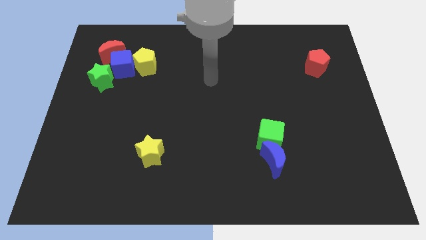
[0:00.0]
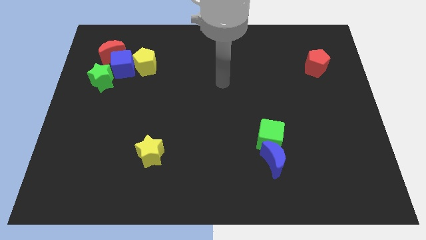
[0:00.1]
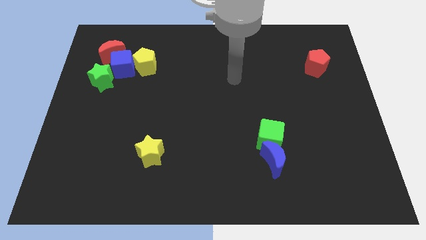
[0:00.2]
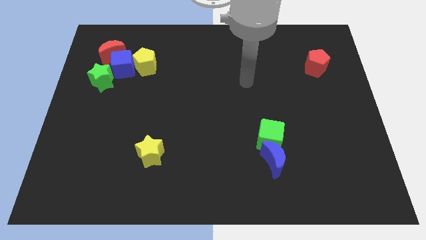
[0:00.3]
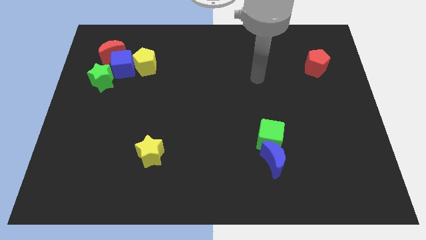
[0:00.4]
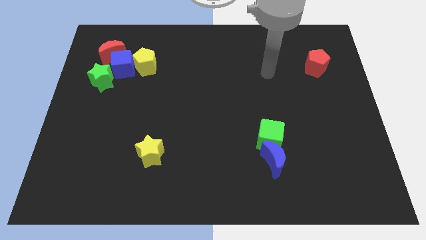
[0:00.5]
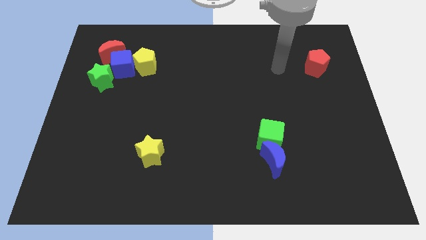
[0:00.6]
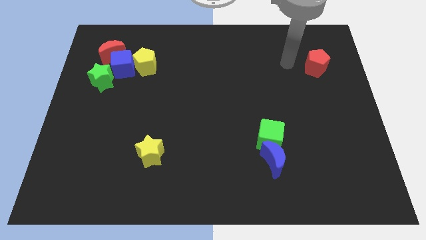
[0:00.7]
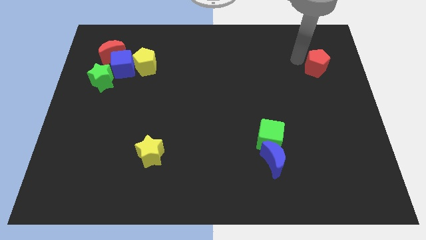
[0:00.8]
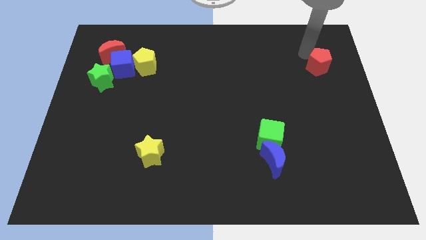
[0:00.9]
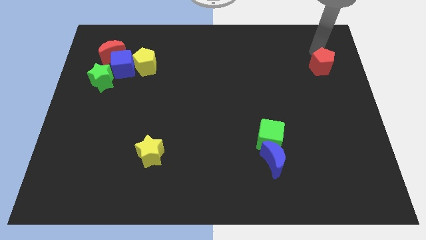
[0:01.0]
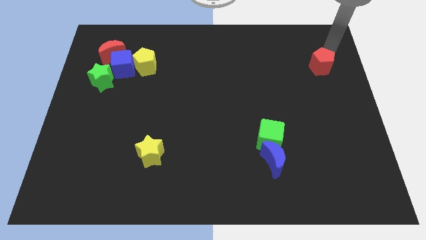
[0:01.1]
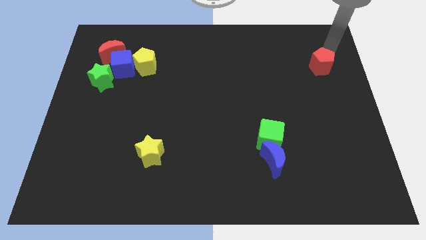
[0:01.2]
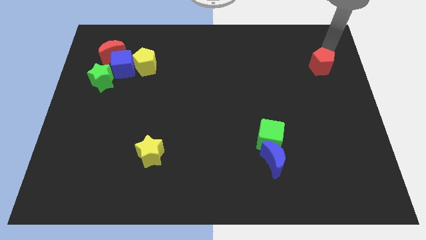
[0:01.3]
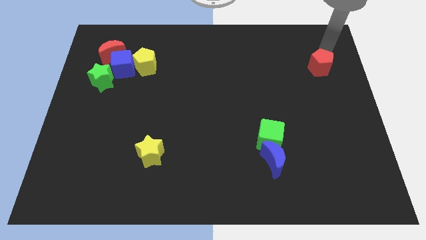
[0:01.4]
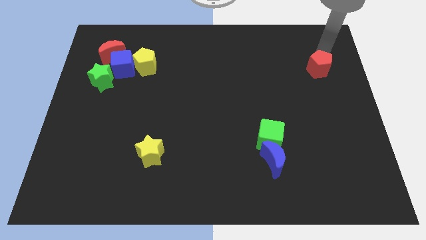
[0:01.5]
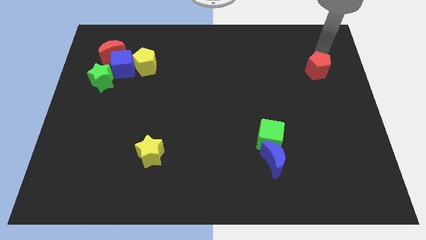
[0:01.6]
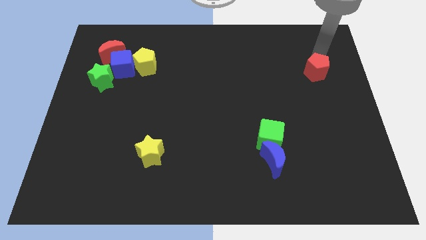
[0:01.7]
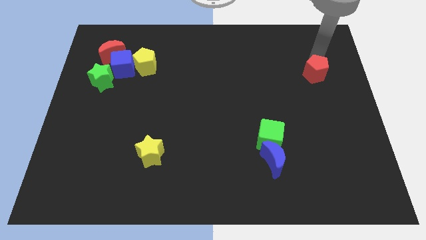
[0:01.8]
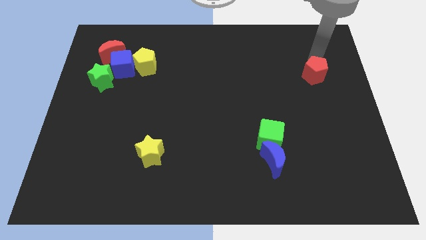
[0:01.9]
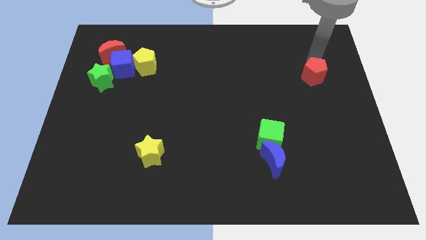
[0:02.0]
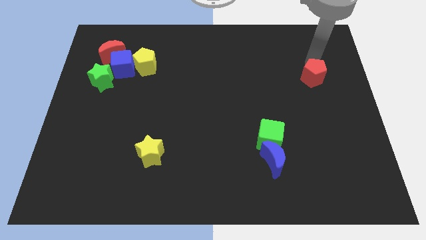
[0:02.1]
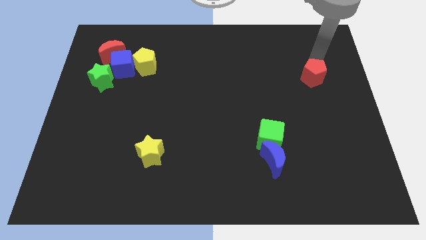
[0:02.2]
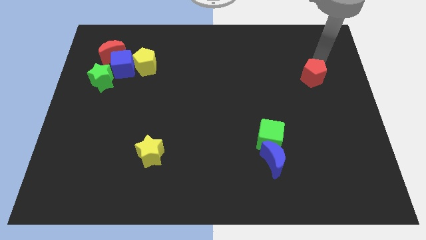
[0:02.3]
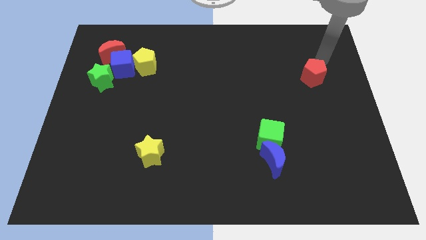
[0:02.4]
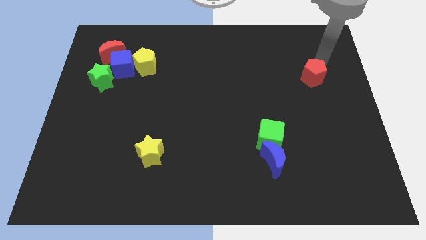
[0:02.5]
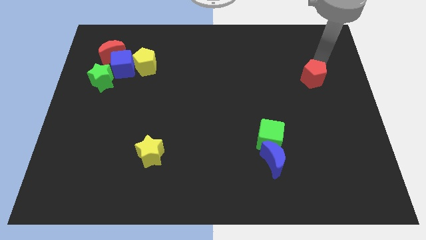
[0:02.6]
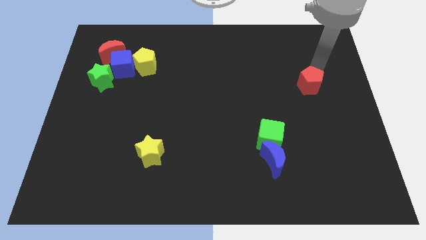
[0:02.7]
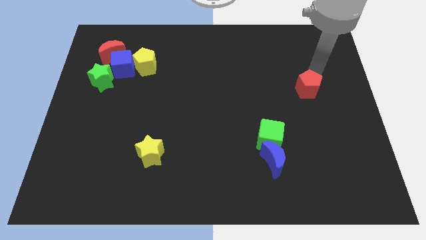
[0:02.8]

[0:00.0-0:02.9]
slide the red pentagon slightly downwards and then to the left

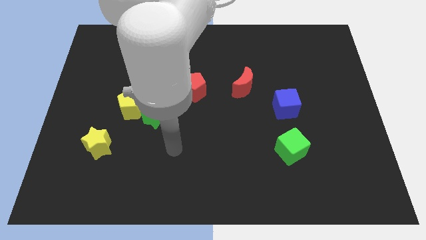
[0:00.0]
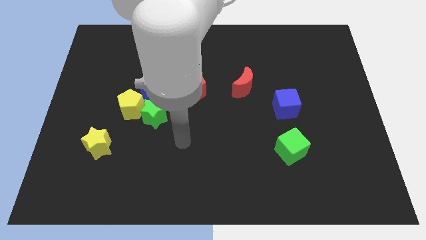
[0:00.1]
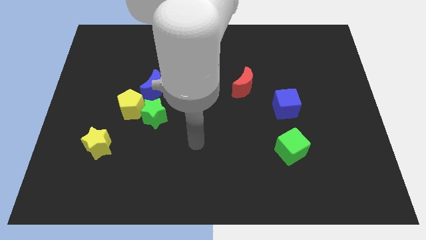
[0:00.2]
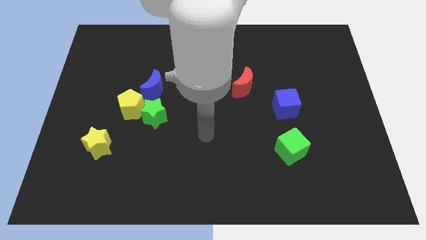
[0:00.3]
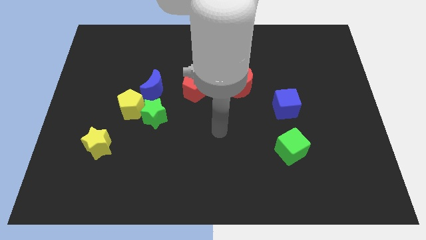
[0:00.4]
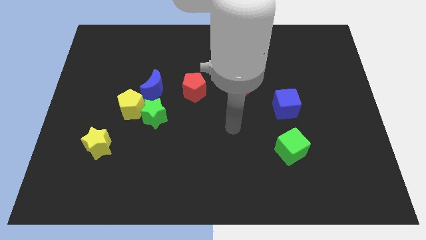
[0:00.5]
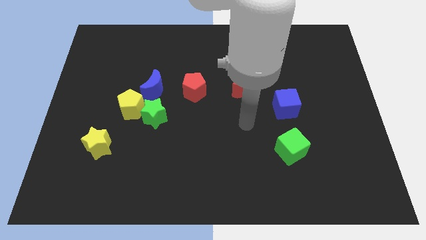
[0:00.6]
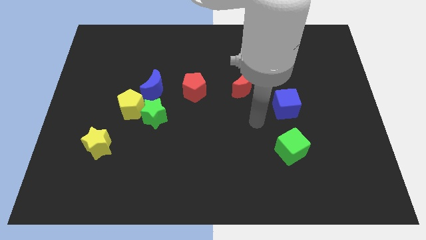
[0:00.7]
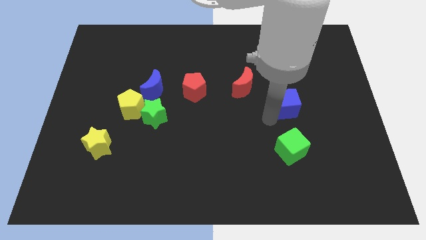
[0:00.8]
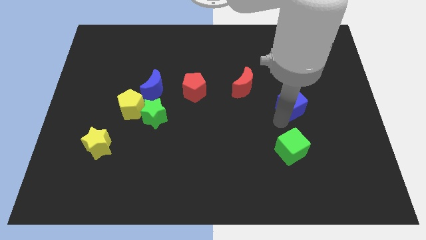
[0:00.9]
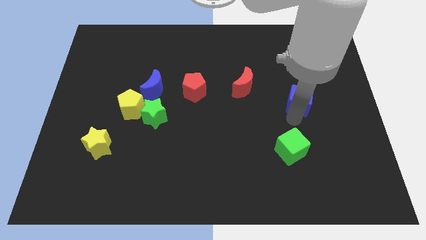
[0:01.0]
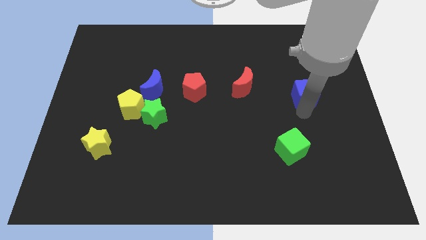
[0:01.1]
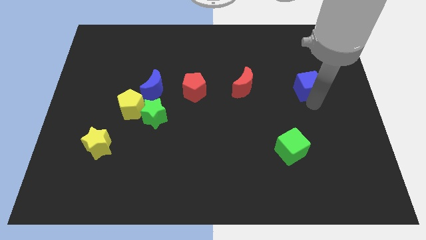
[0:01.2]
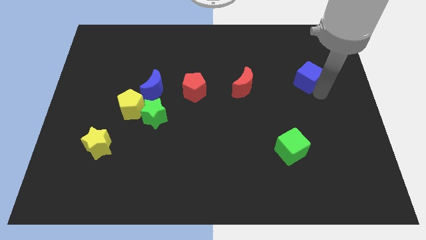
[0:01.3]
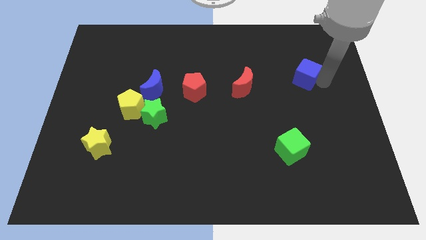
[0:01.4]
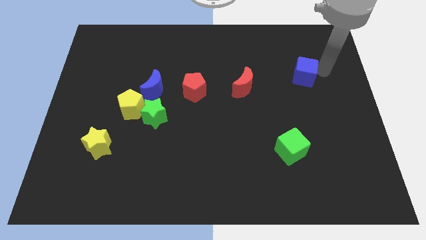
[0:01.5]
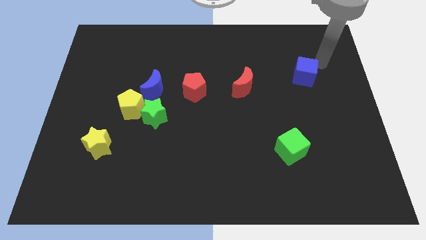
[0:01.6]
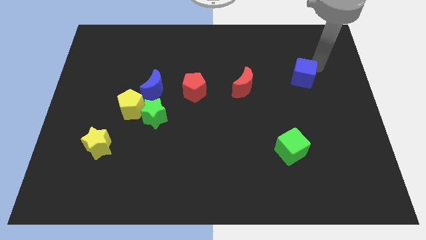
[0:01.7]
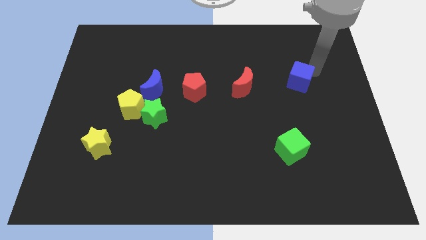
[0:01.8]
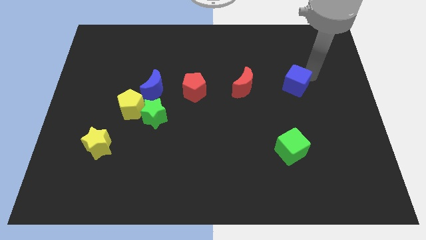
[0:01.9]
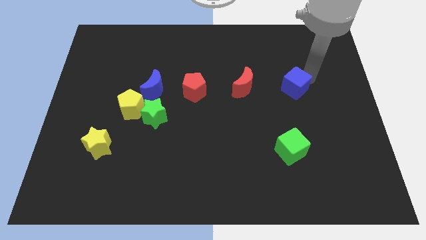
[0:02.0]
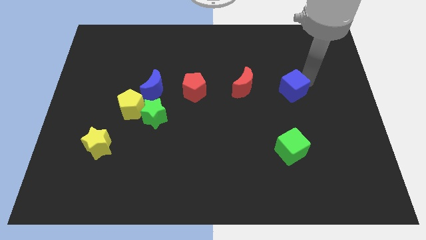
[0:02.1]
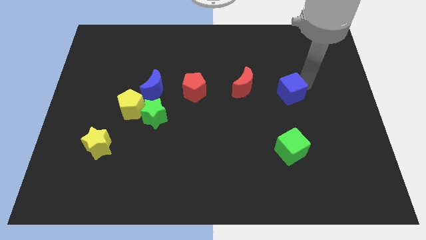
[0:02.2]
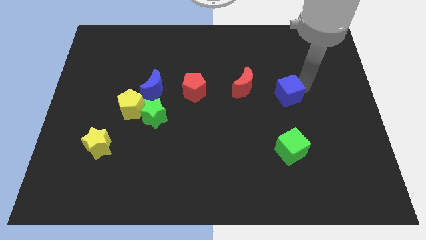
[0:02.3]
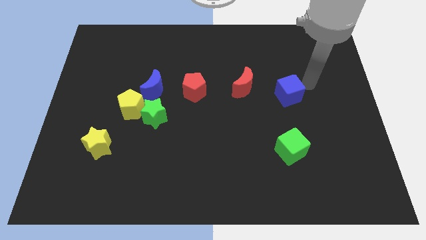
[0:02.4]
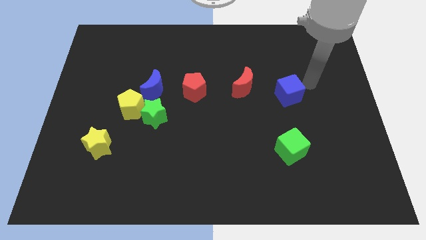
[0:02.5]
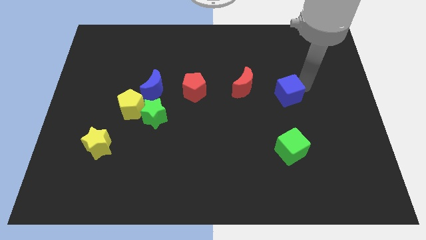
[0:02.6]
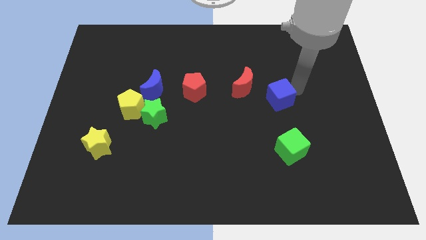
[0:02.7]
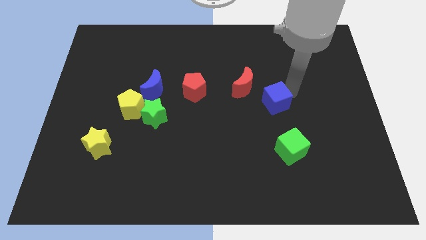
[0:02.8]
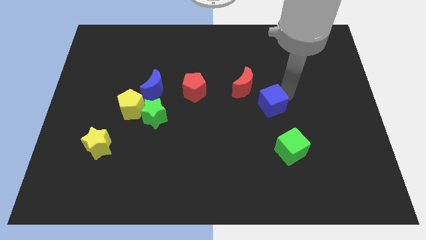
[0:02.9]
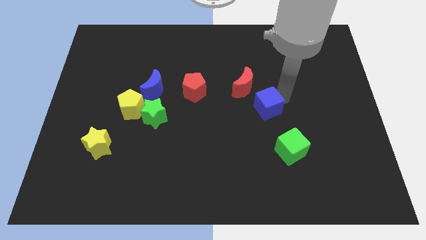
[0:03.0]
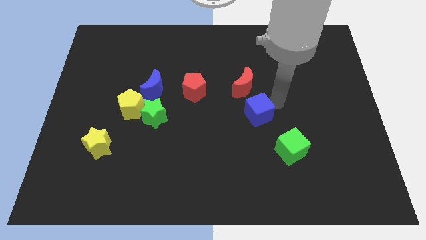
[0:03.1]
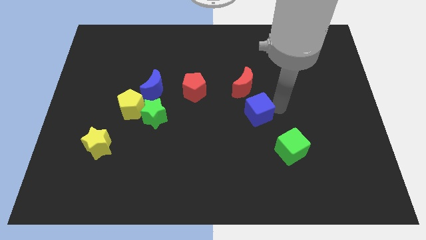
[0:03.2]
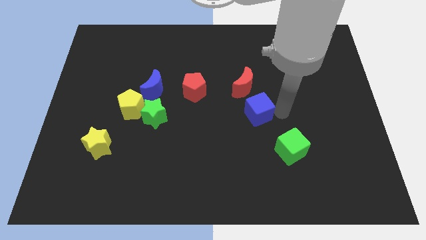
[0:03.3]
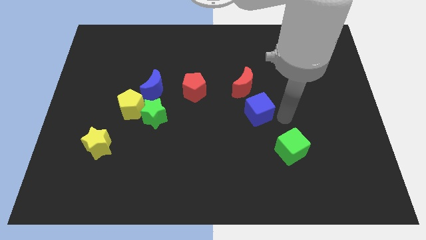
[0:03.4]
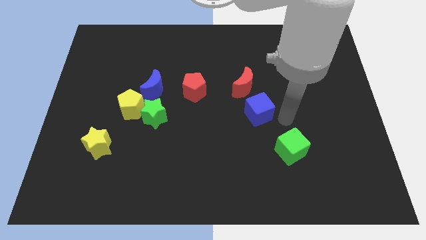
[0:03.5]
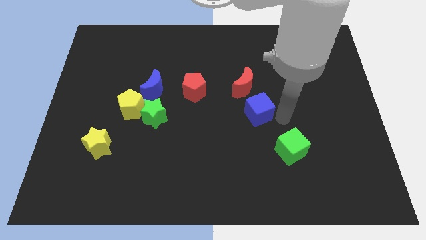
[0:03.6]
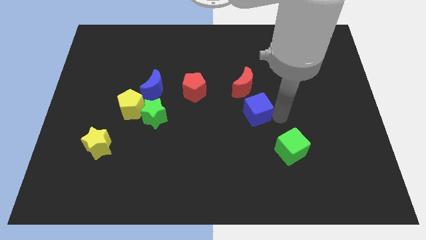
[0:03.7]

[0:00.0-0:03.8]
push the blue cube a little to the left

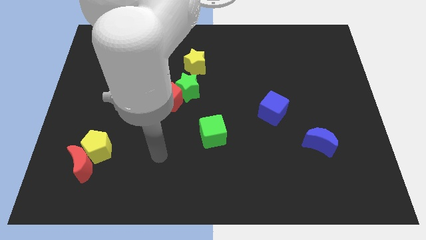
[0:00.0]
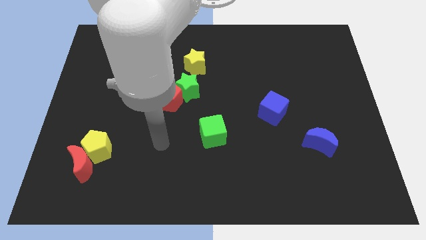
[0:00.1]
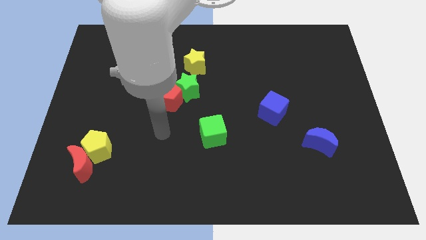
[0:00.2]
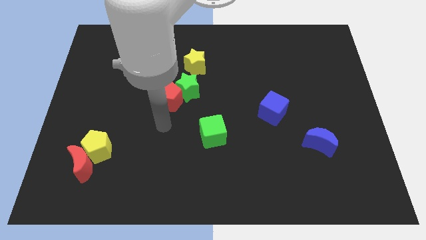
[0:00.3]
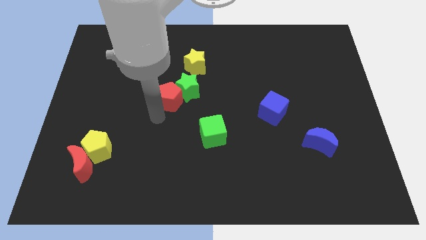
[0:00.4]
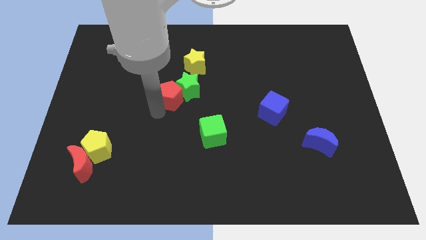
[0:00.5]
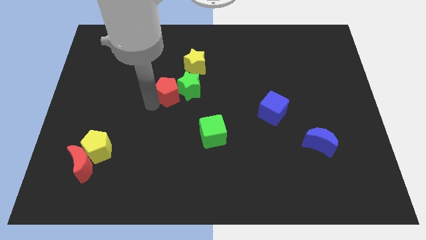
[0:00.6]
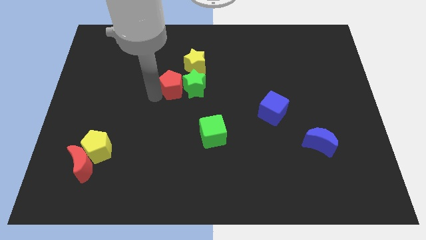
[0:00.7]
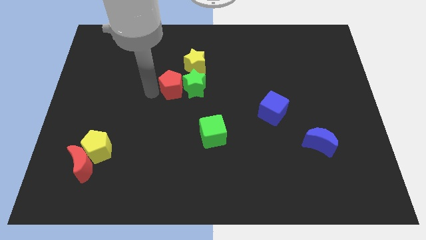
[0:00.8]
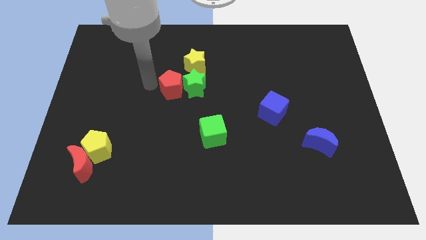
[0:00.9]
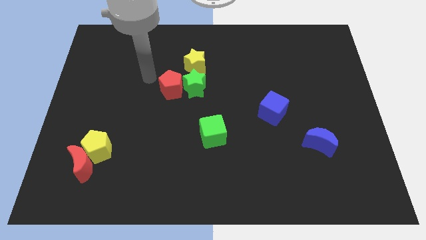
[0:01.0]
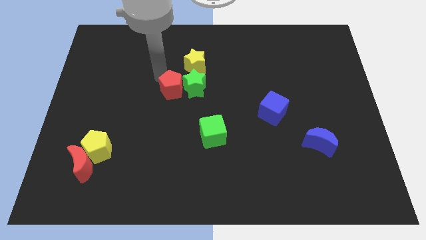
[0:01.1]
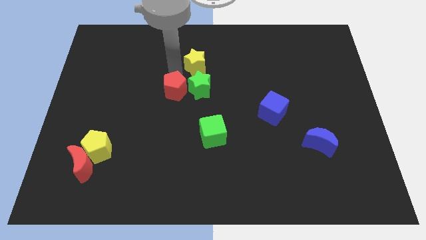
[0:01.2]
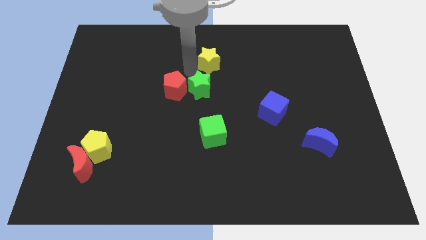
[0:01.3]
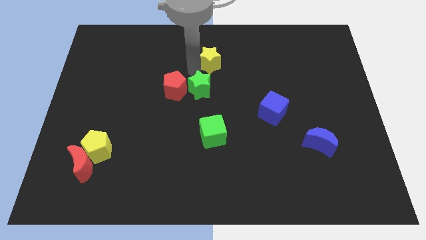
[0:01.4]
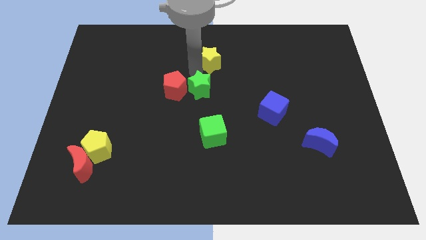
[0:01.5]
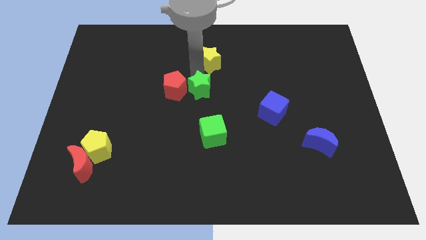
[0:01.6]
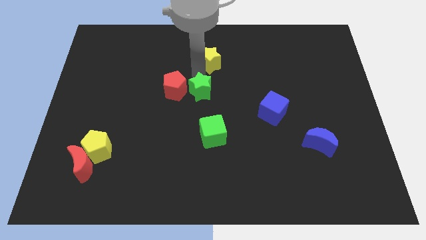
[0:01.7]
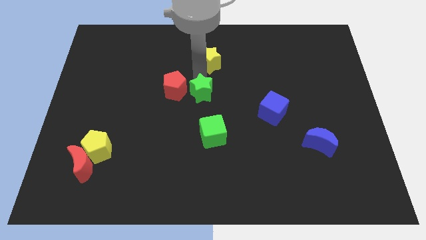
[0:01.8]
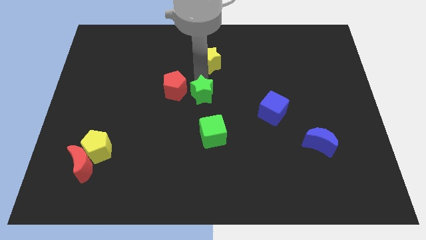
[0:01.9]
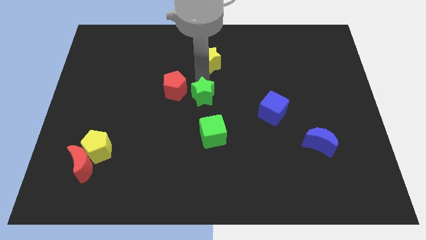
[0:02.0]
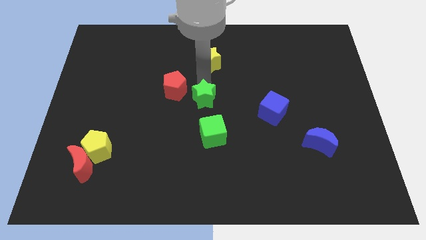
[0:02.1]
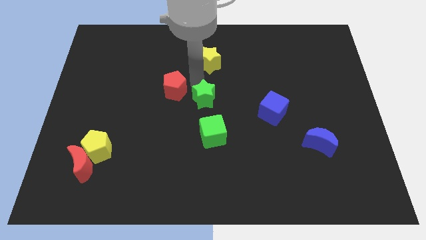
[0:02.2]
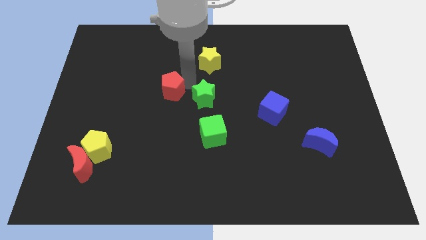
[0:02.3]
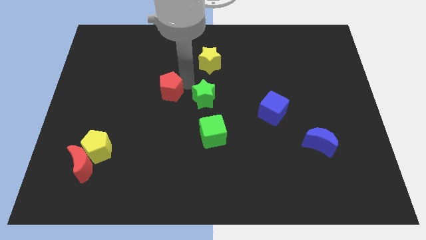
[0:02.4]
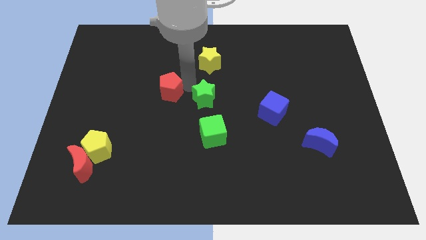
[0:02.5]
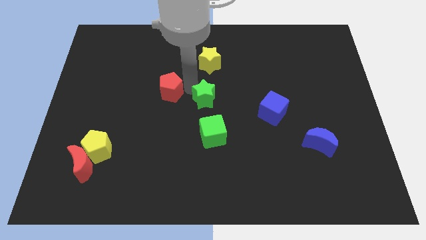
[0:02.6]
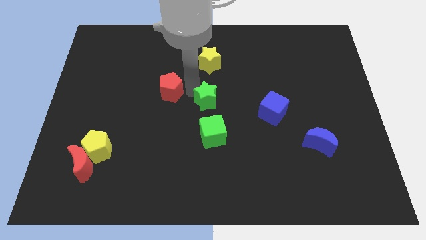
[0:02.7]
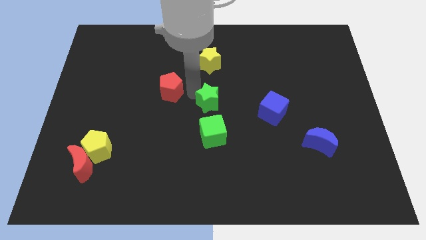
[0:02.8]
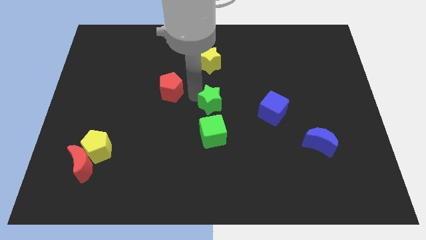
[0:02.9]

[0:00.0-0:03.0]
move the green star down and then right a little bit
